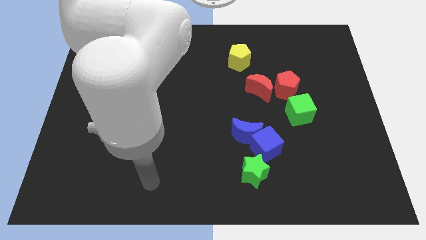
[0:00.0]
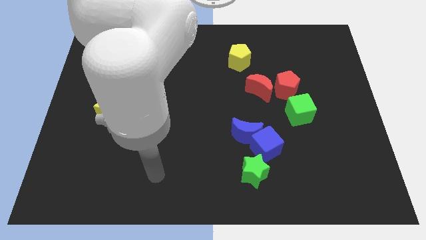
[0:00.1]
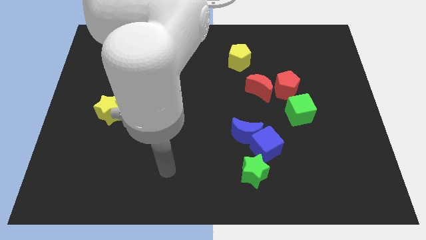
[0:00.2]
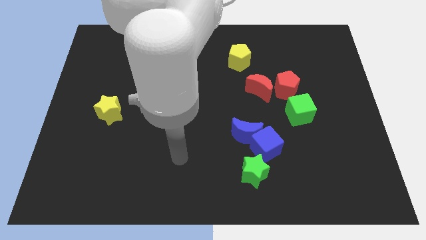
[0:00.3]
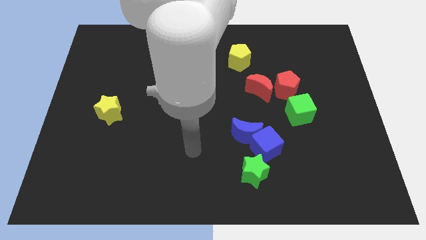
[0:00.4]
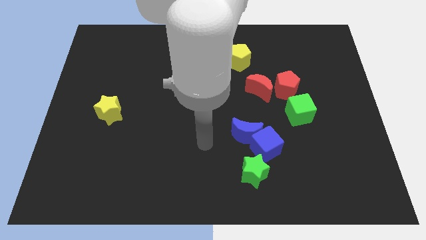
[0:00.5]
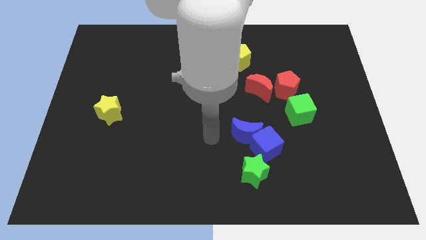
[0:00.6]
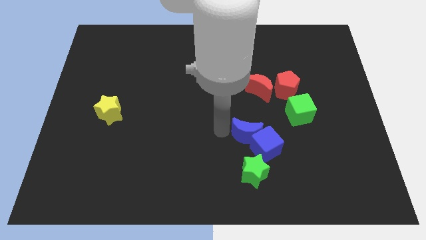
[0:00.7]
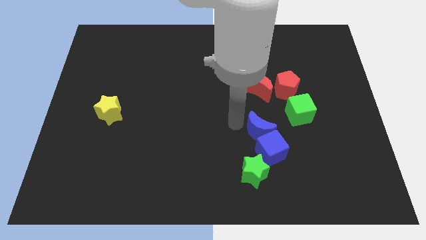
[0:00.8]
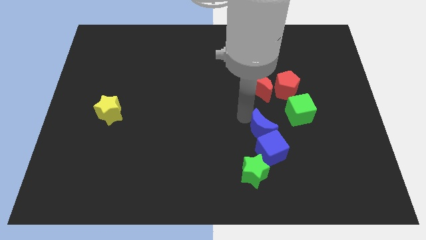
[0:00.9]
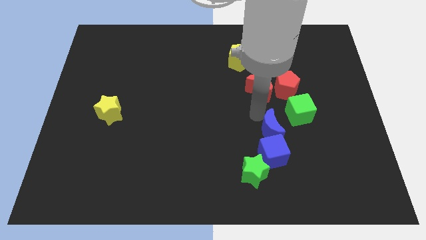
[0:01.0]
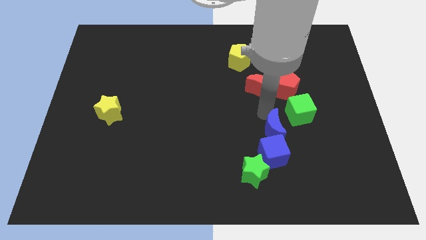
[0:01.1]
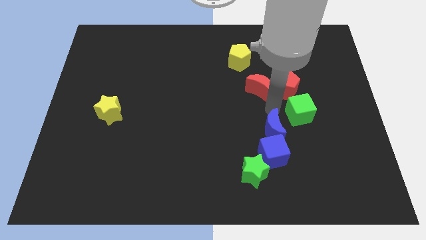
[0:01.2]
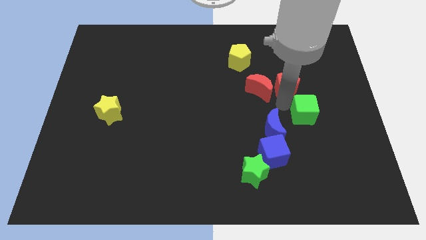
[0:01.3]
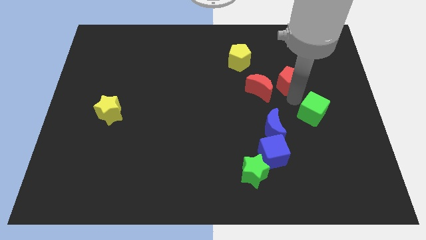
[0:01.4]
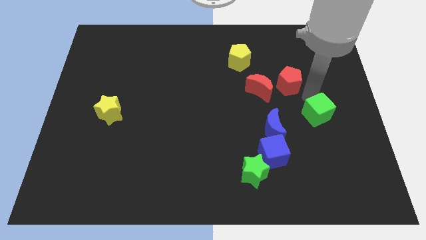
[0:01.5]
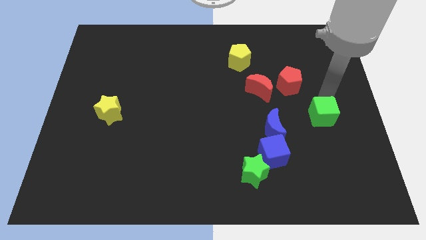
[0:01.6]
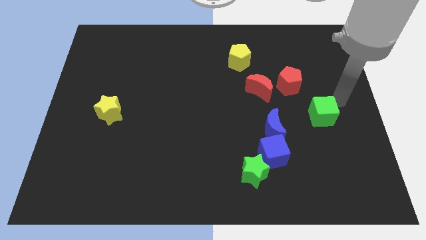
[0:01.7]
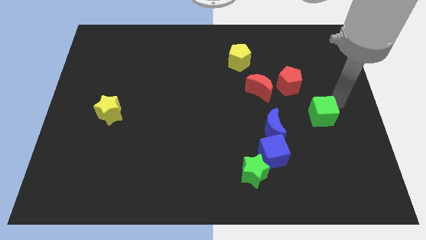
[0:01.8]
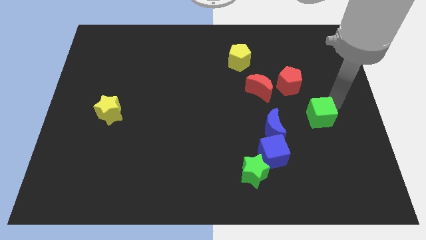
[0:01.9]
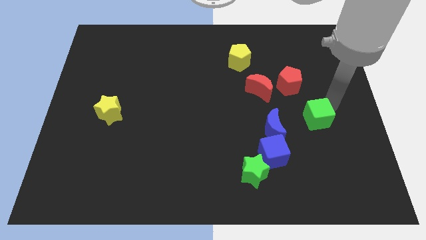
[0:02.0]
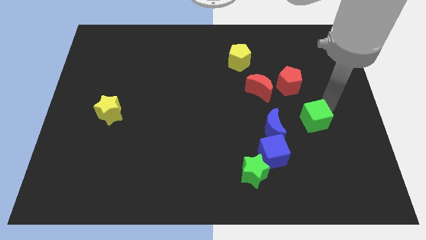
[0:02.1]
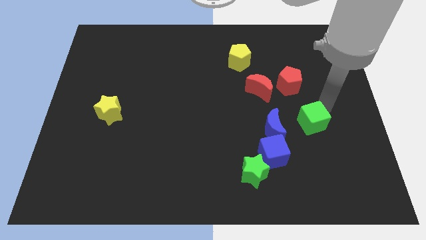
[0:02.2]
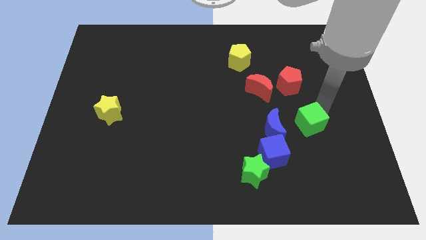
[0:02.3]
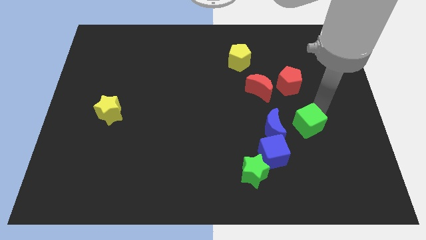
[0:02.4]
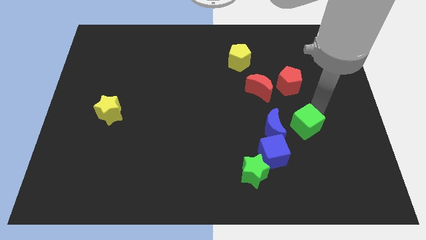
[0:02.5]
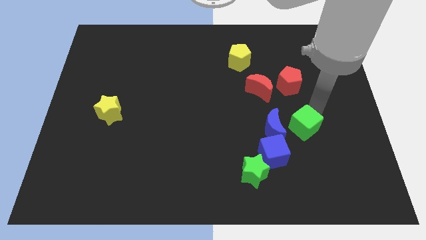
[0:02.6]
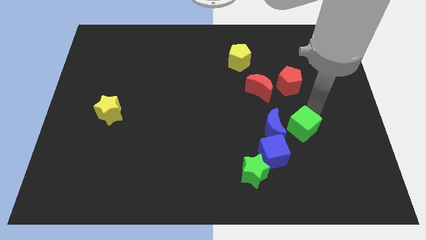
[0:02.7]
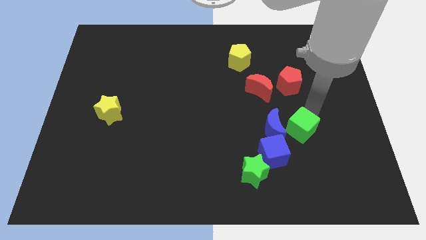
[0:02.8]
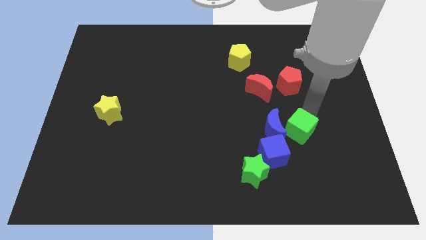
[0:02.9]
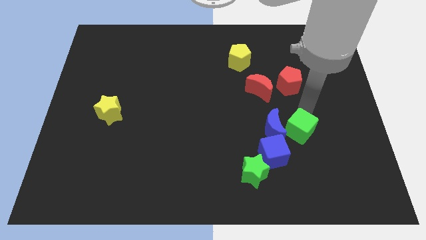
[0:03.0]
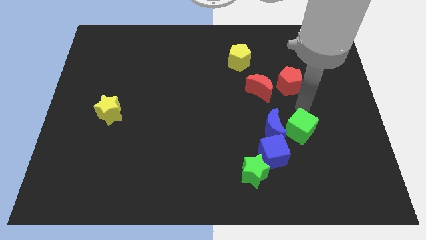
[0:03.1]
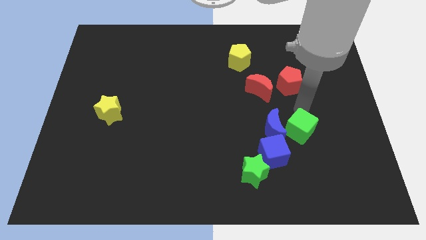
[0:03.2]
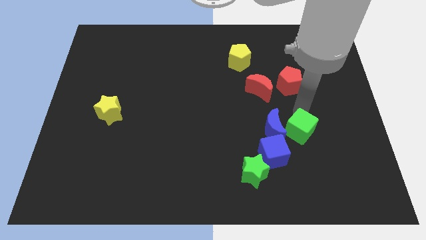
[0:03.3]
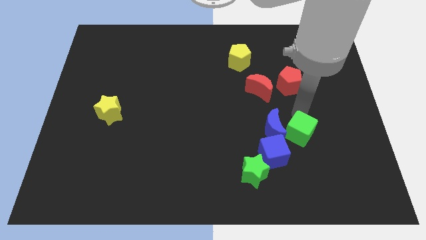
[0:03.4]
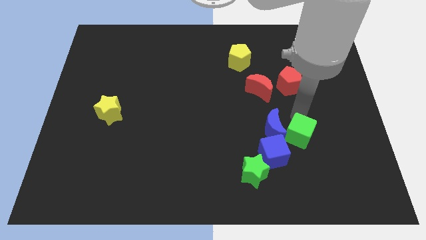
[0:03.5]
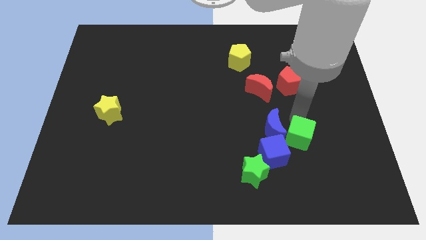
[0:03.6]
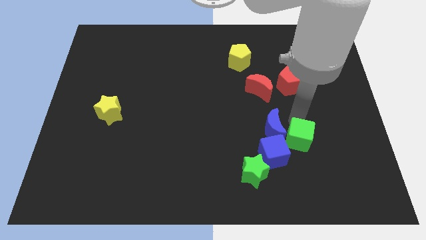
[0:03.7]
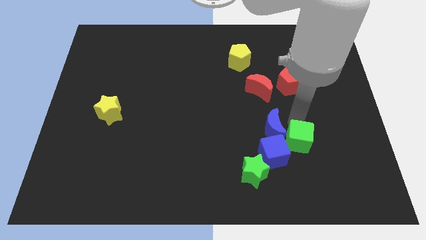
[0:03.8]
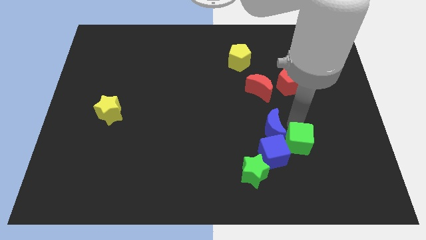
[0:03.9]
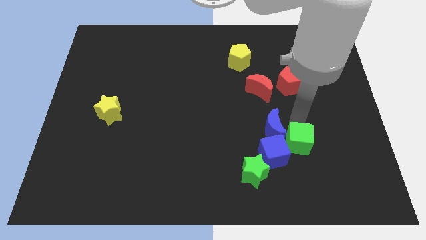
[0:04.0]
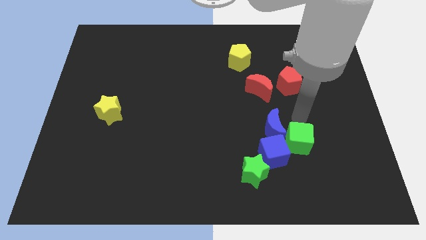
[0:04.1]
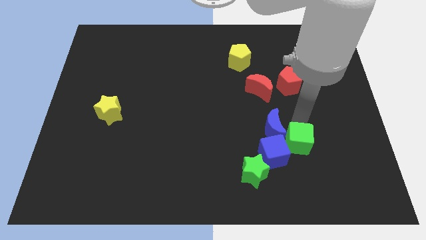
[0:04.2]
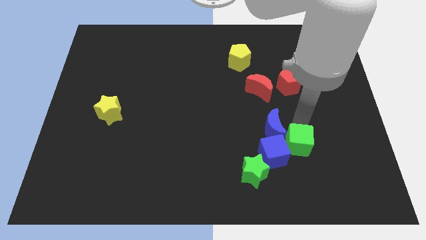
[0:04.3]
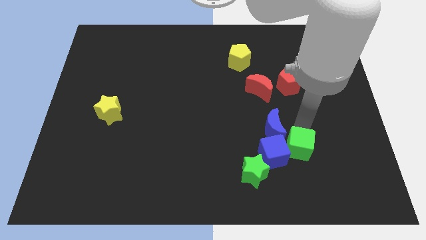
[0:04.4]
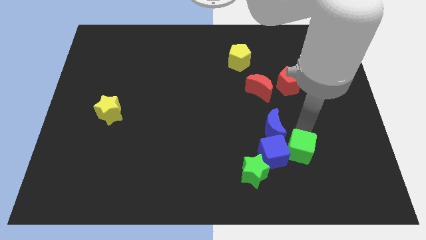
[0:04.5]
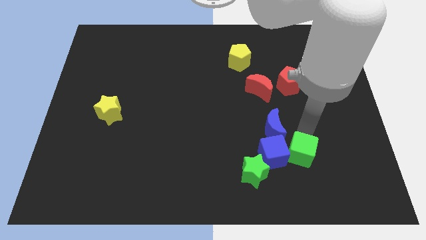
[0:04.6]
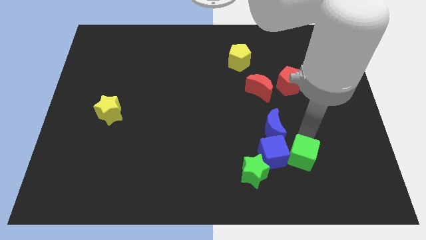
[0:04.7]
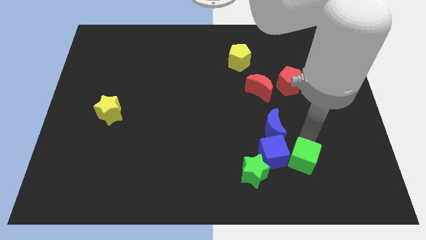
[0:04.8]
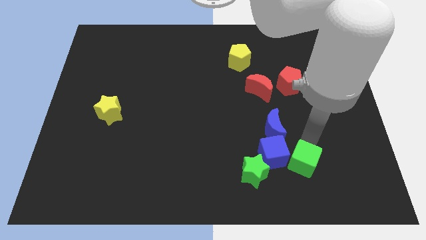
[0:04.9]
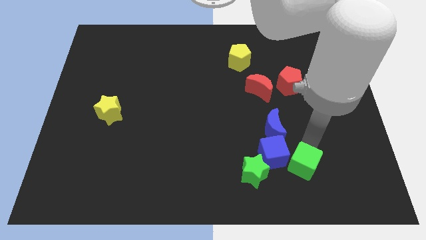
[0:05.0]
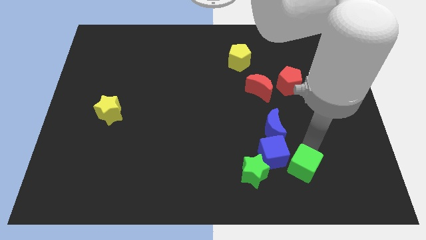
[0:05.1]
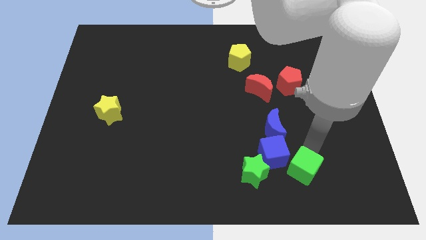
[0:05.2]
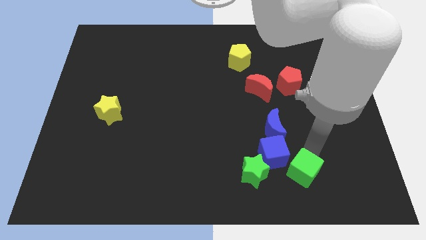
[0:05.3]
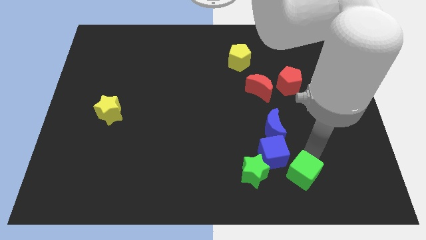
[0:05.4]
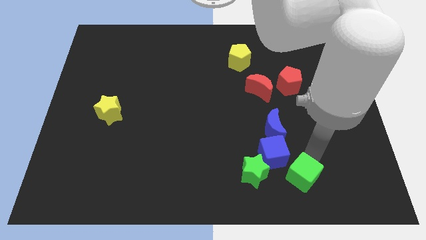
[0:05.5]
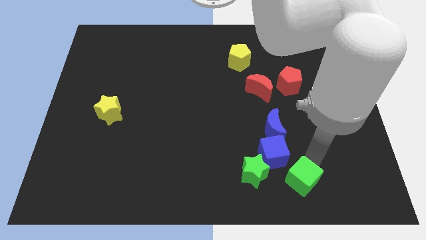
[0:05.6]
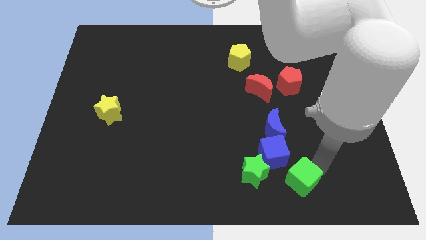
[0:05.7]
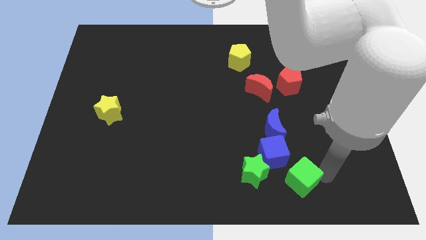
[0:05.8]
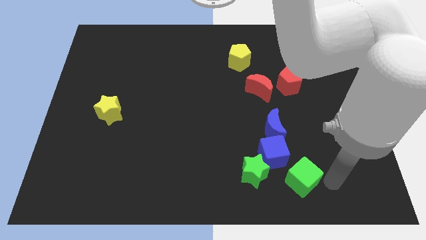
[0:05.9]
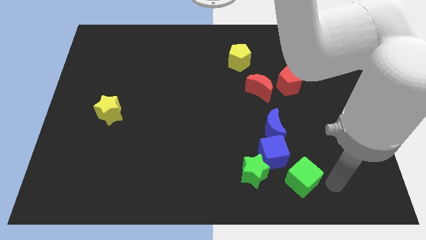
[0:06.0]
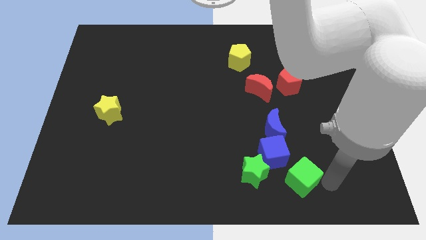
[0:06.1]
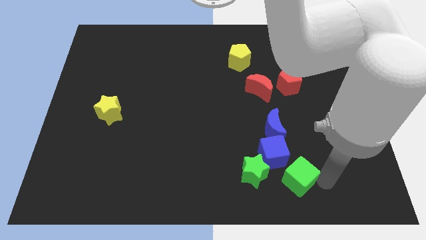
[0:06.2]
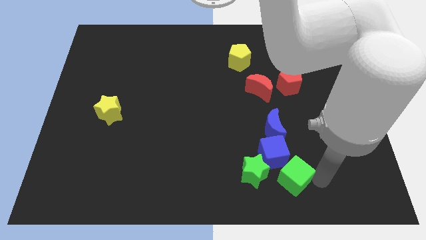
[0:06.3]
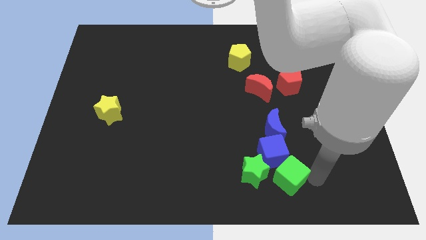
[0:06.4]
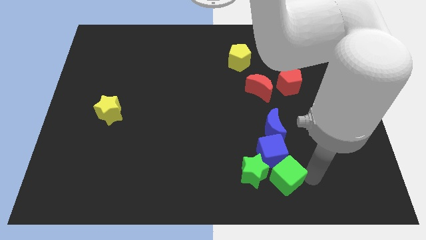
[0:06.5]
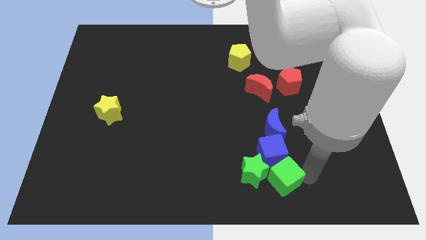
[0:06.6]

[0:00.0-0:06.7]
put the green cube next to the green star

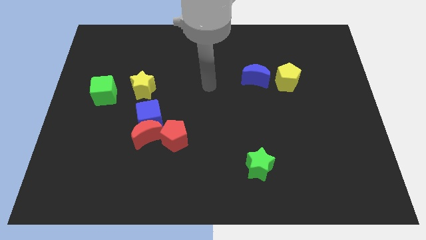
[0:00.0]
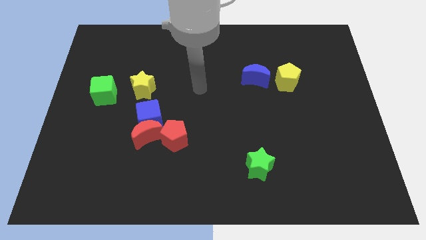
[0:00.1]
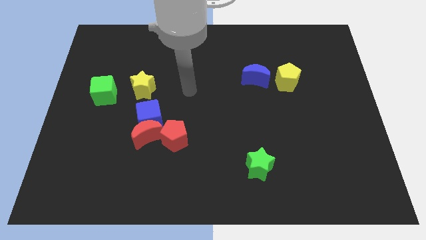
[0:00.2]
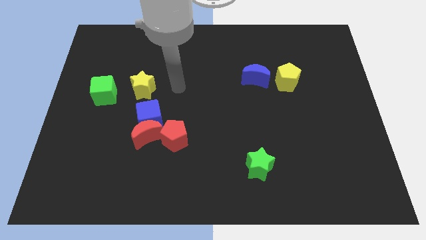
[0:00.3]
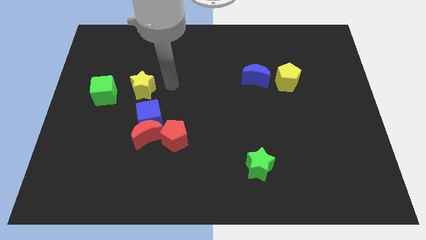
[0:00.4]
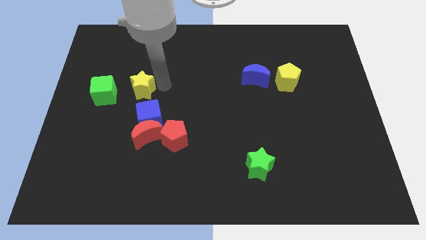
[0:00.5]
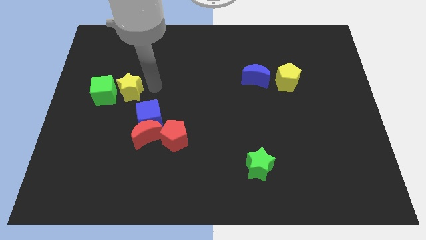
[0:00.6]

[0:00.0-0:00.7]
slide the yellow star to the green cube
